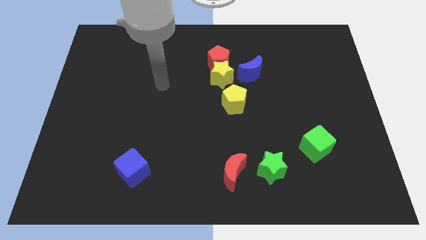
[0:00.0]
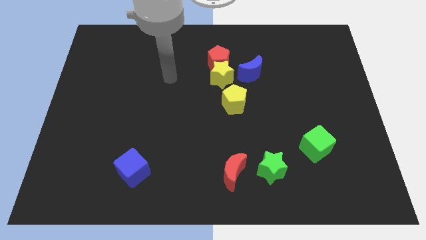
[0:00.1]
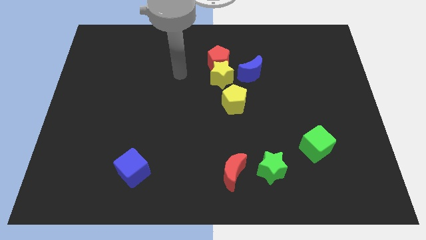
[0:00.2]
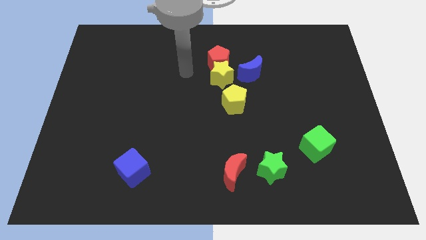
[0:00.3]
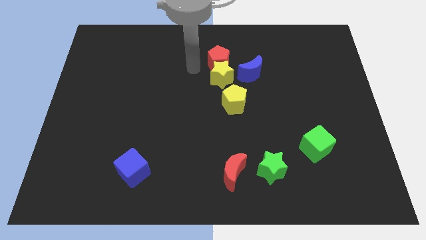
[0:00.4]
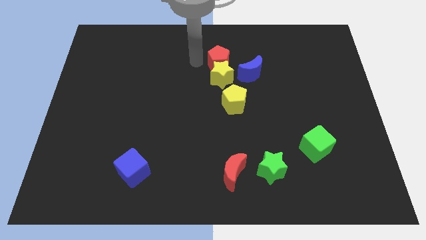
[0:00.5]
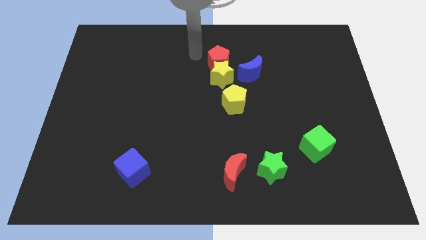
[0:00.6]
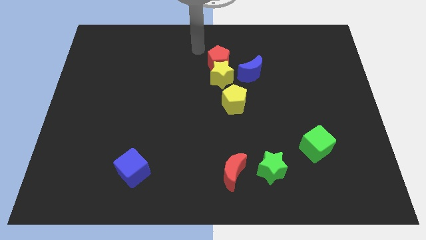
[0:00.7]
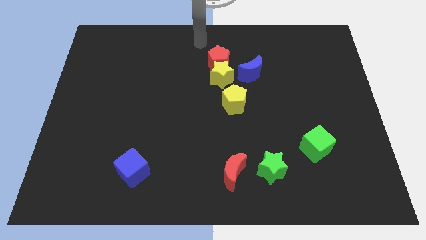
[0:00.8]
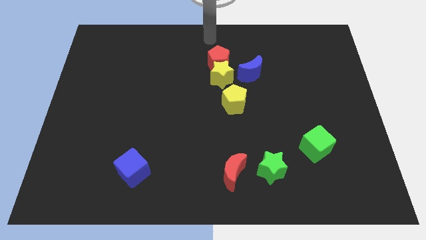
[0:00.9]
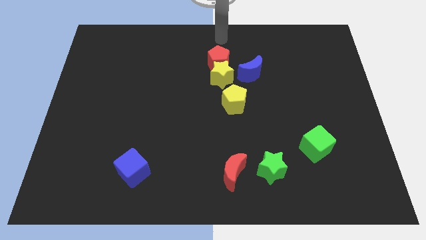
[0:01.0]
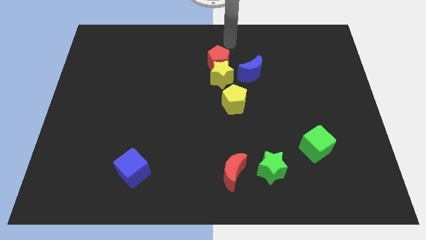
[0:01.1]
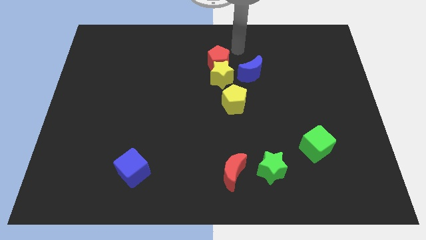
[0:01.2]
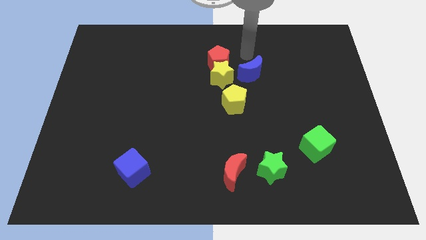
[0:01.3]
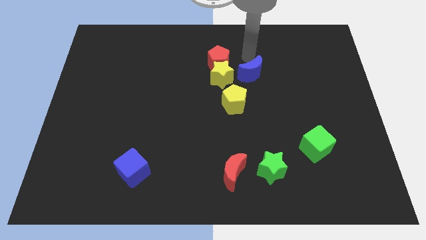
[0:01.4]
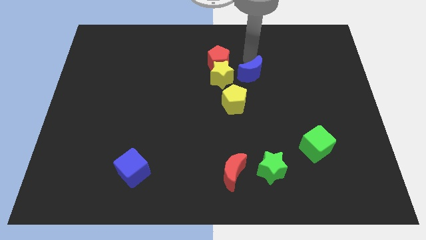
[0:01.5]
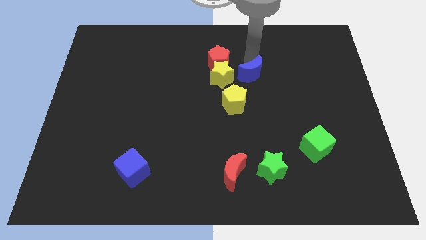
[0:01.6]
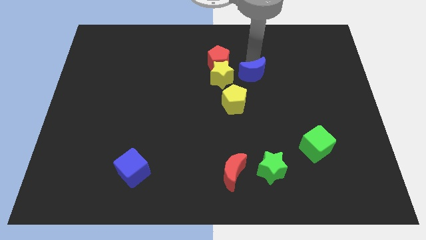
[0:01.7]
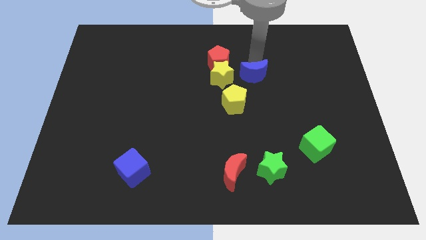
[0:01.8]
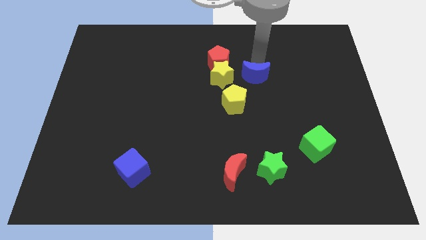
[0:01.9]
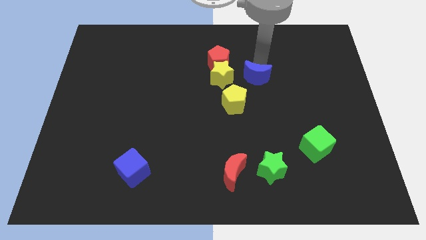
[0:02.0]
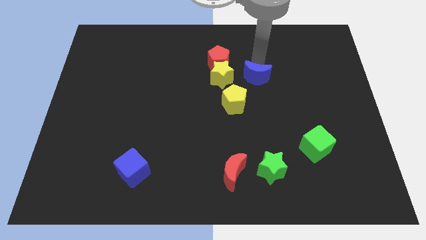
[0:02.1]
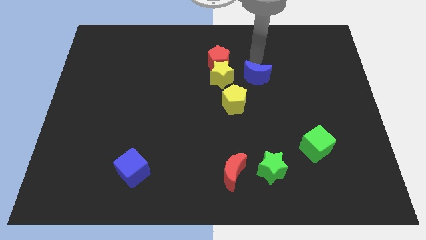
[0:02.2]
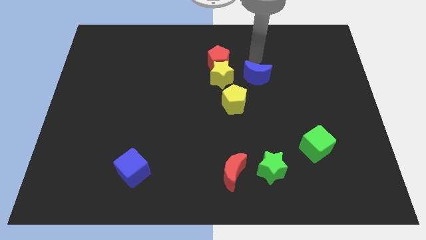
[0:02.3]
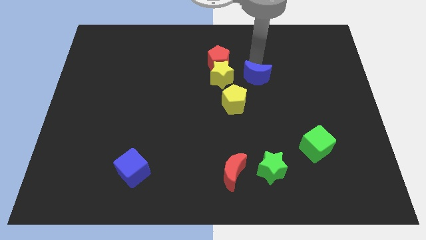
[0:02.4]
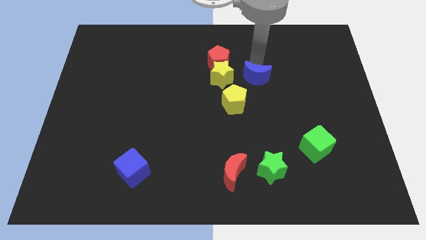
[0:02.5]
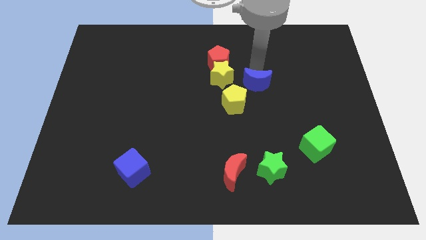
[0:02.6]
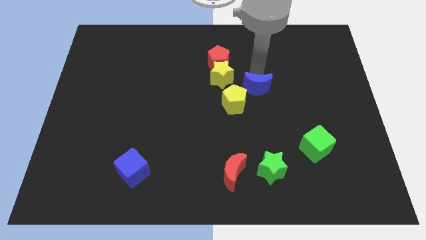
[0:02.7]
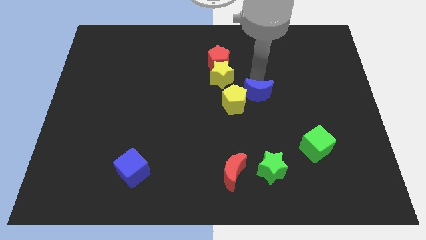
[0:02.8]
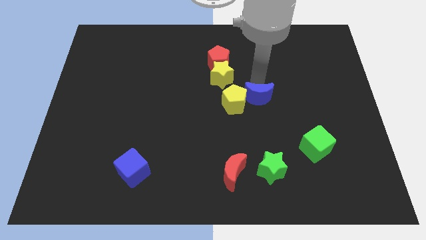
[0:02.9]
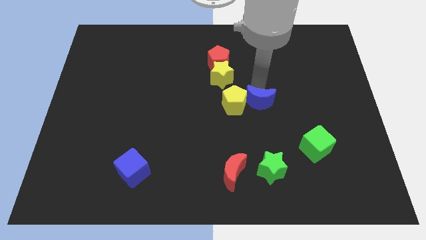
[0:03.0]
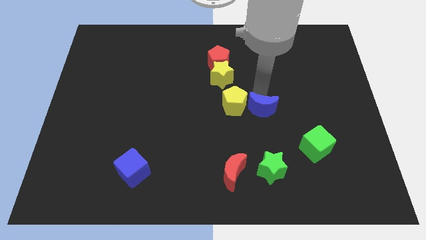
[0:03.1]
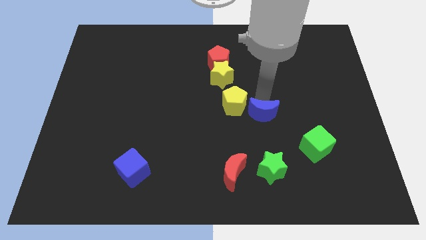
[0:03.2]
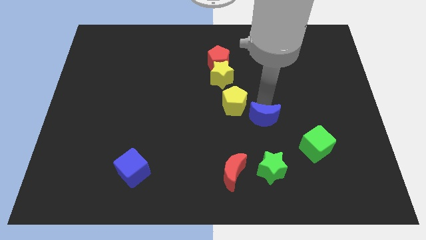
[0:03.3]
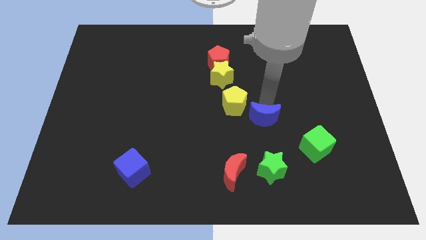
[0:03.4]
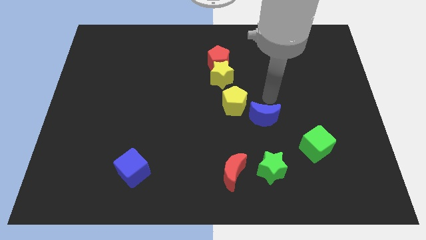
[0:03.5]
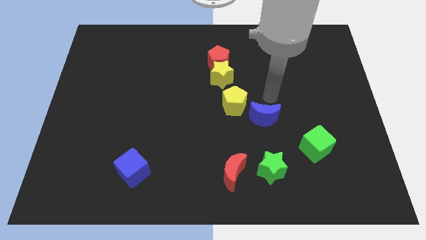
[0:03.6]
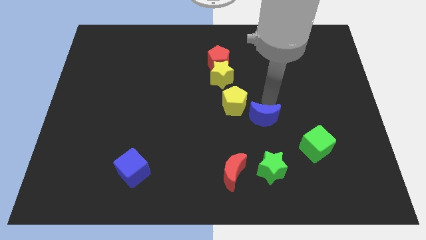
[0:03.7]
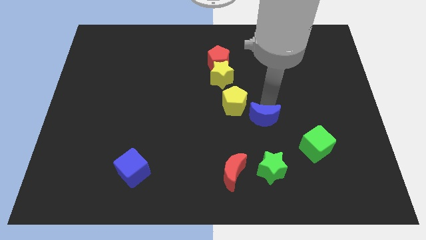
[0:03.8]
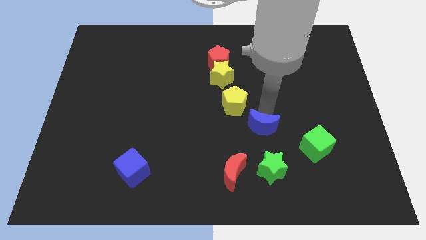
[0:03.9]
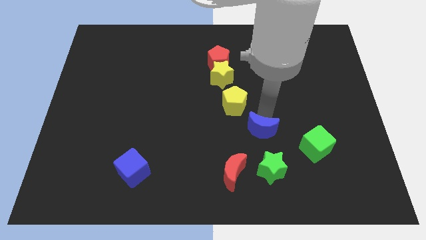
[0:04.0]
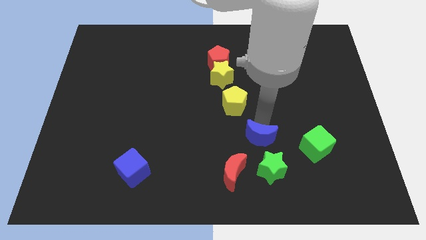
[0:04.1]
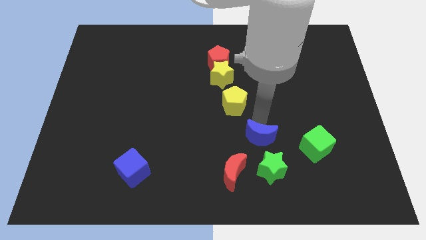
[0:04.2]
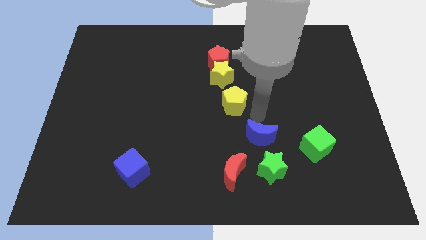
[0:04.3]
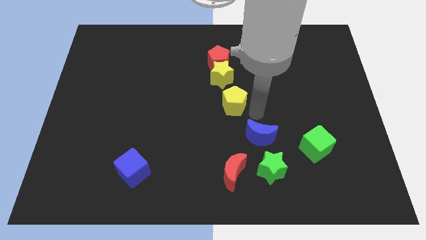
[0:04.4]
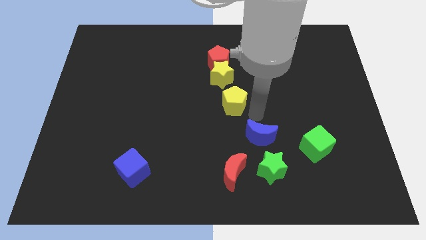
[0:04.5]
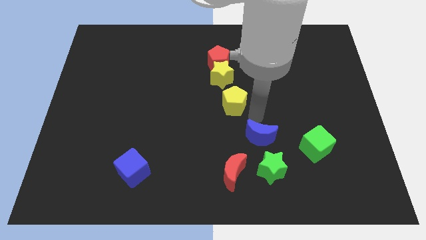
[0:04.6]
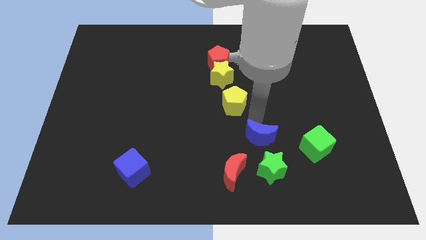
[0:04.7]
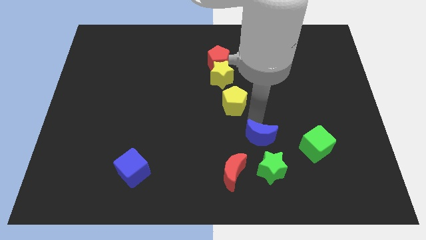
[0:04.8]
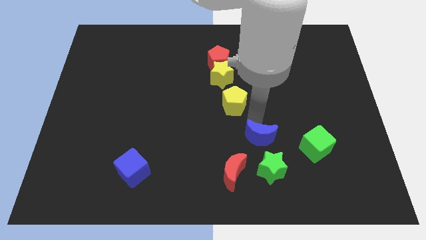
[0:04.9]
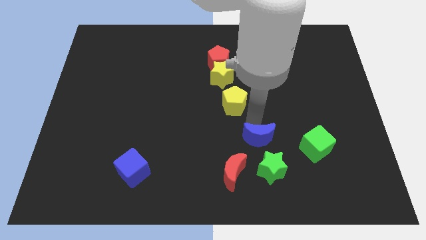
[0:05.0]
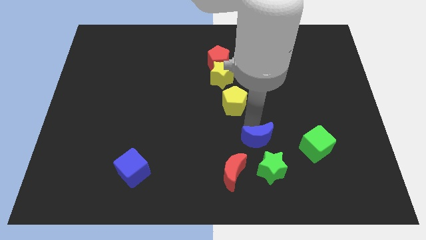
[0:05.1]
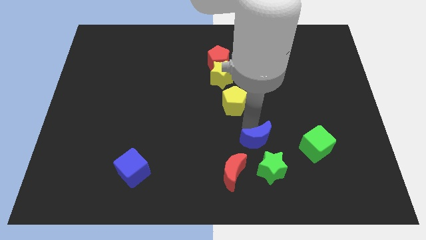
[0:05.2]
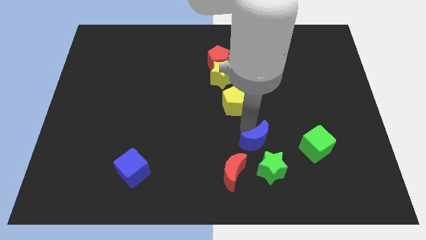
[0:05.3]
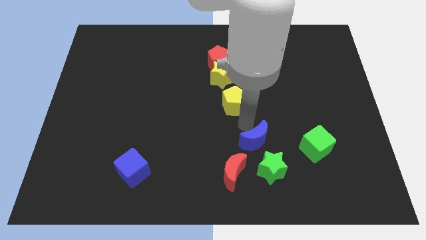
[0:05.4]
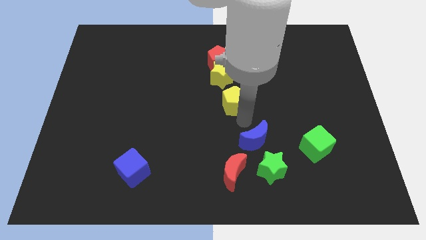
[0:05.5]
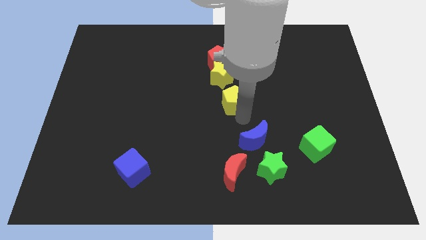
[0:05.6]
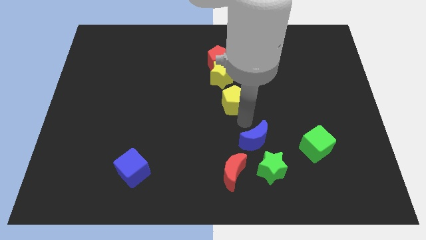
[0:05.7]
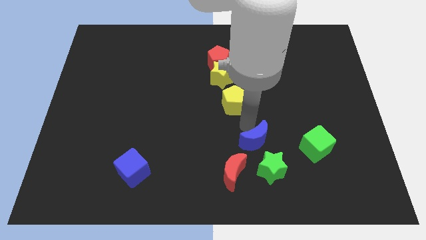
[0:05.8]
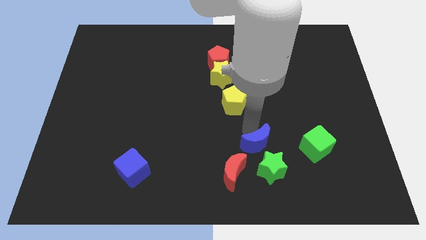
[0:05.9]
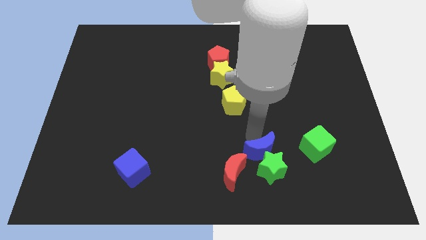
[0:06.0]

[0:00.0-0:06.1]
move the blue moon to the green star
